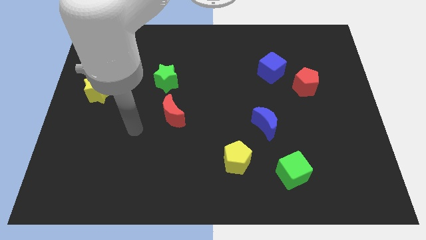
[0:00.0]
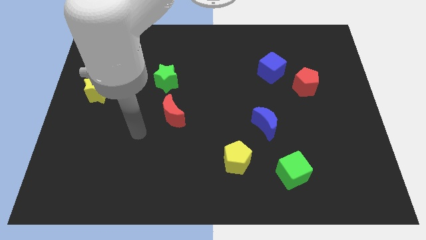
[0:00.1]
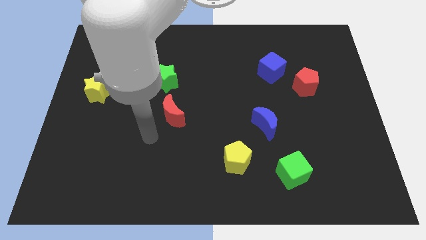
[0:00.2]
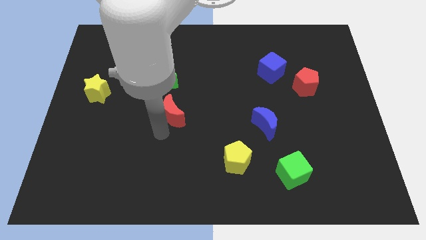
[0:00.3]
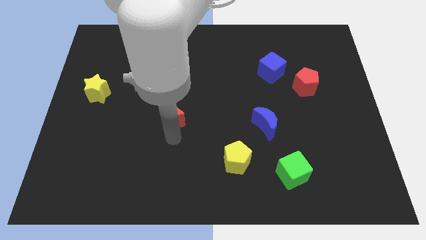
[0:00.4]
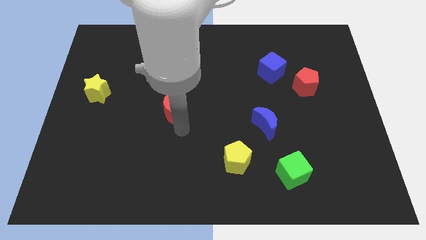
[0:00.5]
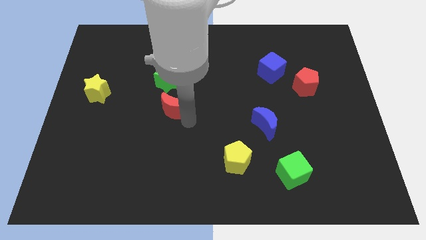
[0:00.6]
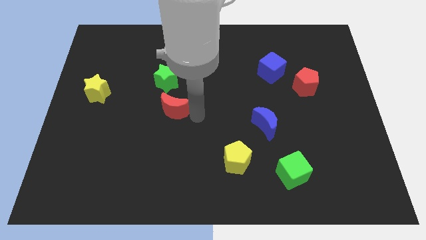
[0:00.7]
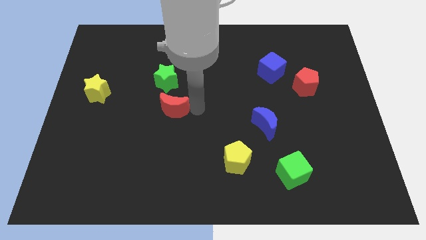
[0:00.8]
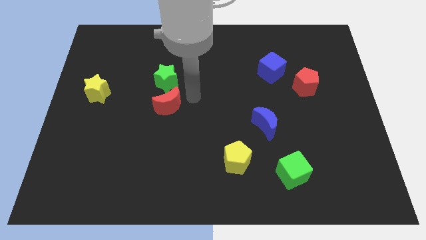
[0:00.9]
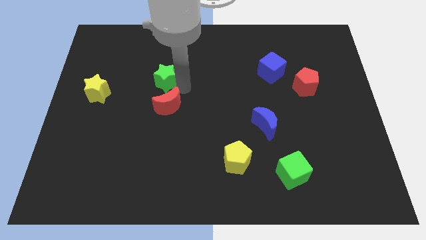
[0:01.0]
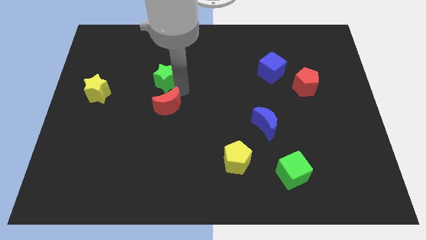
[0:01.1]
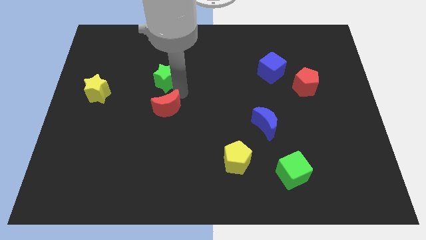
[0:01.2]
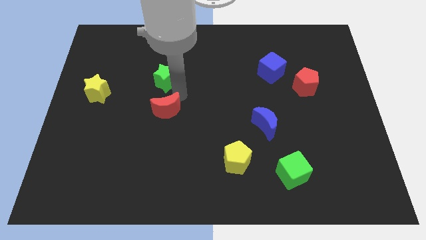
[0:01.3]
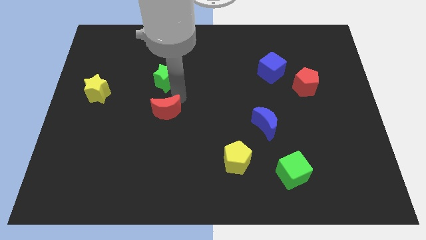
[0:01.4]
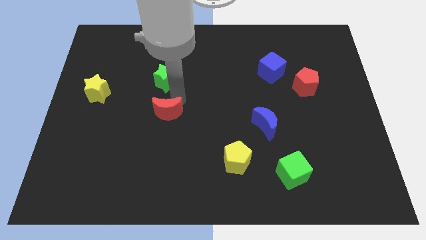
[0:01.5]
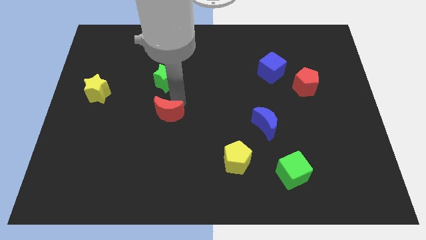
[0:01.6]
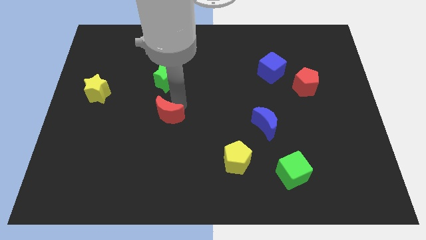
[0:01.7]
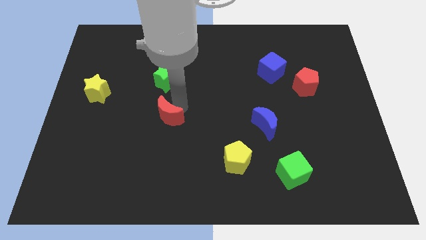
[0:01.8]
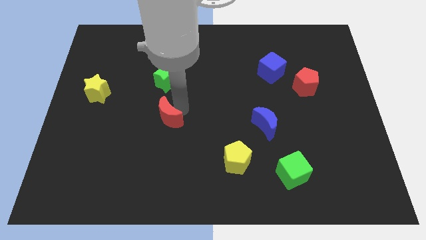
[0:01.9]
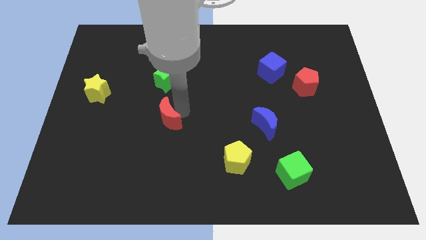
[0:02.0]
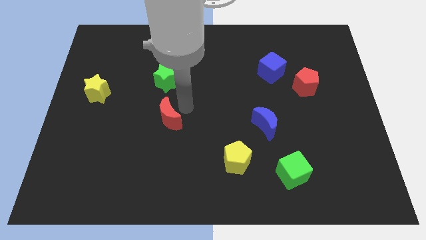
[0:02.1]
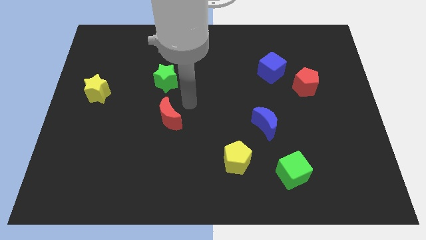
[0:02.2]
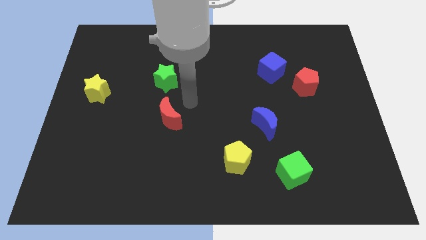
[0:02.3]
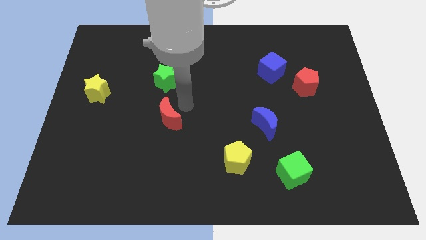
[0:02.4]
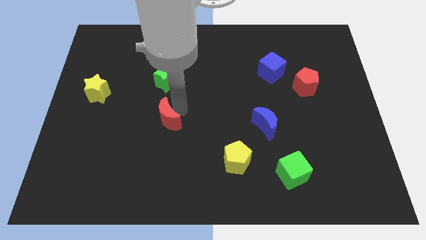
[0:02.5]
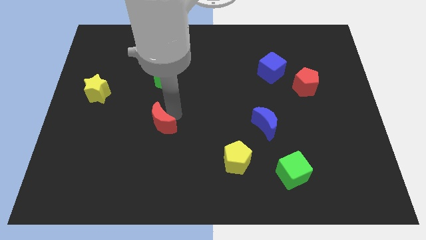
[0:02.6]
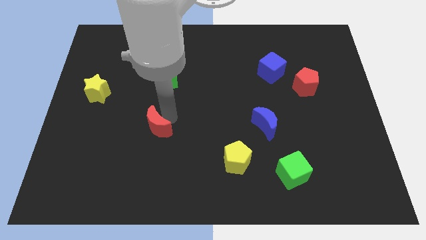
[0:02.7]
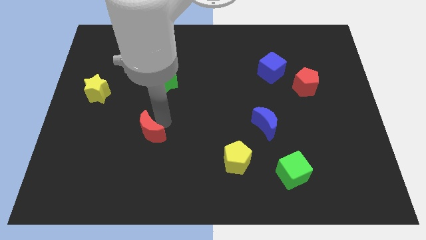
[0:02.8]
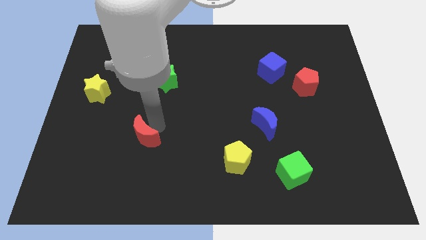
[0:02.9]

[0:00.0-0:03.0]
move the red moon down and left diagonally a little bit

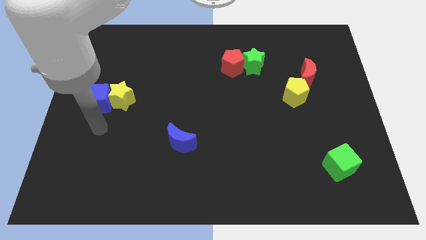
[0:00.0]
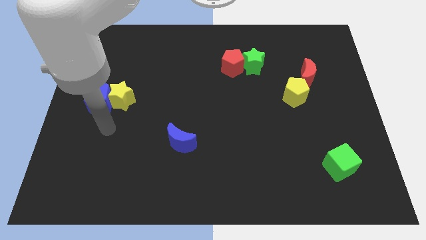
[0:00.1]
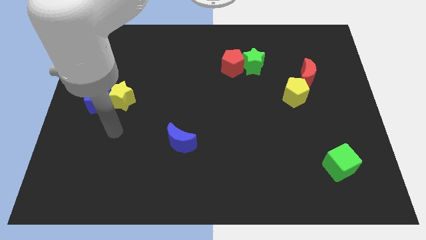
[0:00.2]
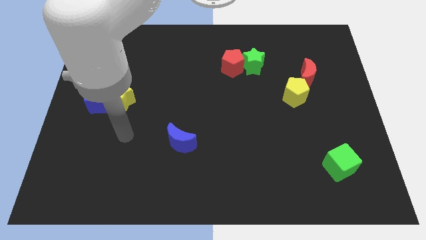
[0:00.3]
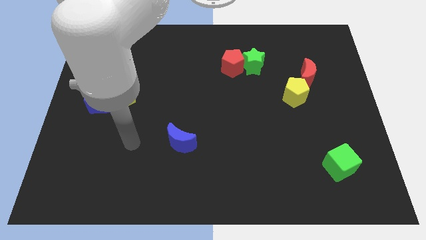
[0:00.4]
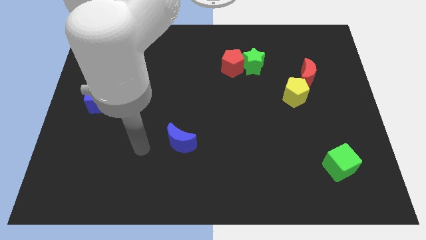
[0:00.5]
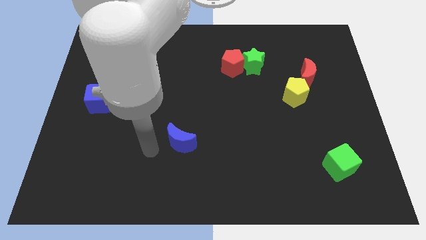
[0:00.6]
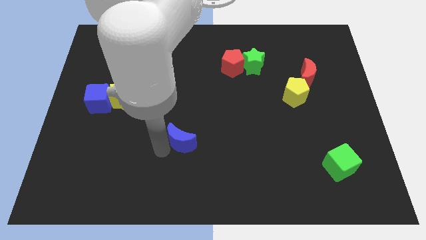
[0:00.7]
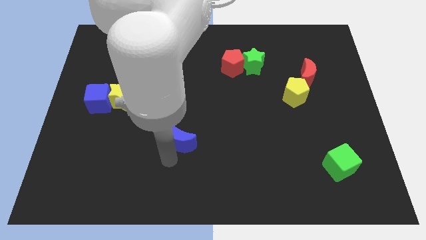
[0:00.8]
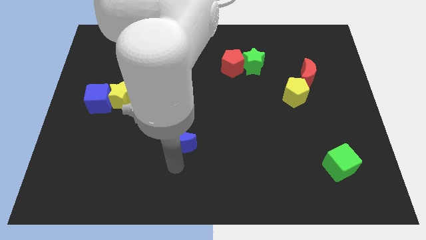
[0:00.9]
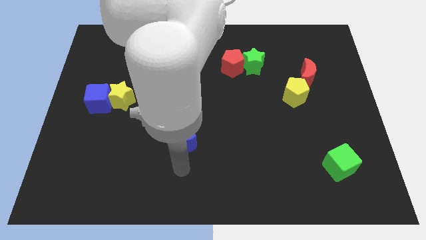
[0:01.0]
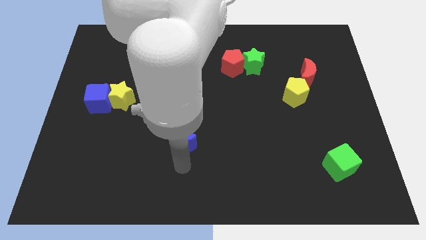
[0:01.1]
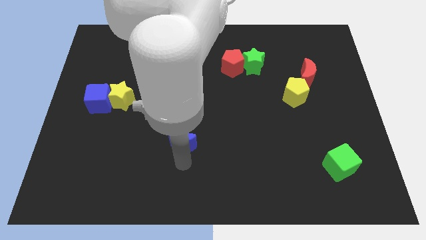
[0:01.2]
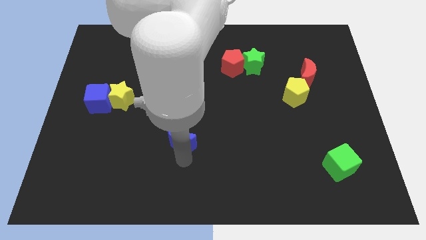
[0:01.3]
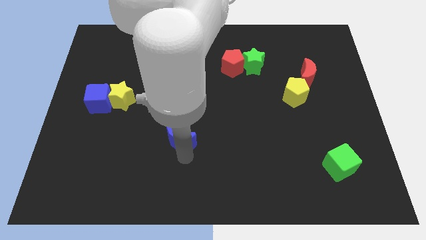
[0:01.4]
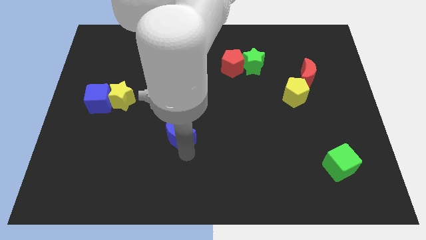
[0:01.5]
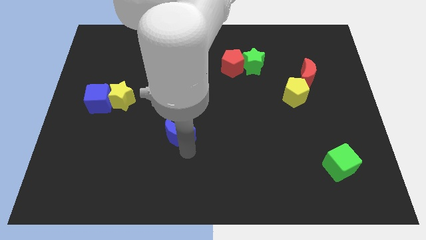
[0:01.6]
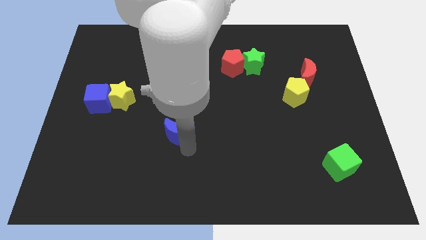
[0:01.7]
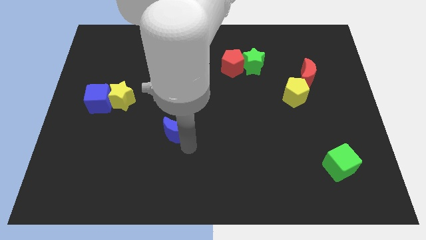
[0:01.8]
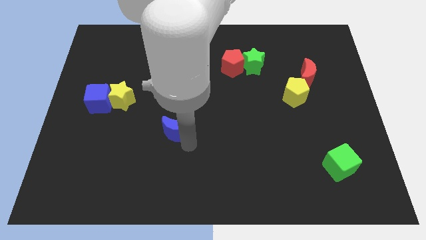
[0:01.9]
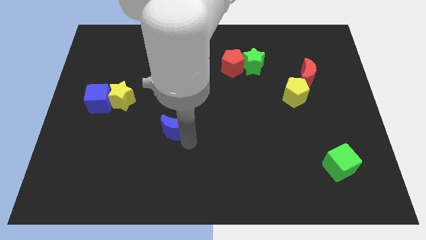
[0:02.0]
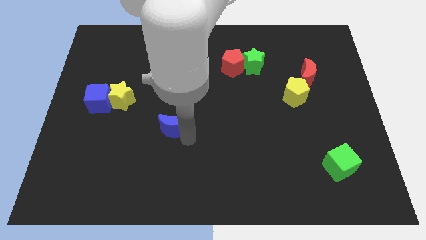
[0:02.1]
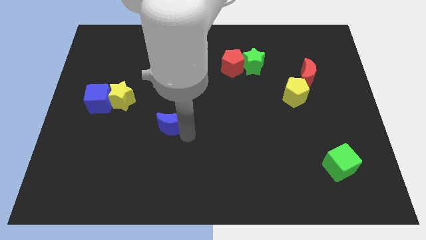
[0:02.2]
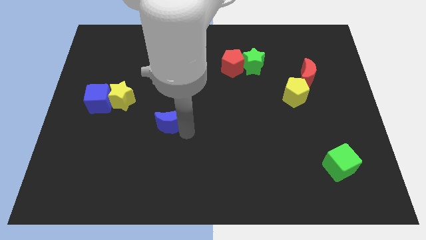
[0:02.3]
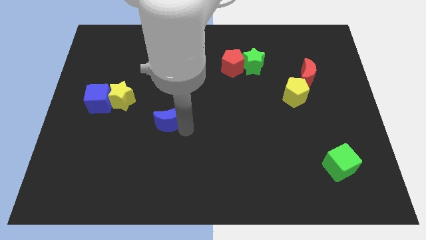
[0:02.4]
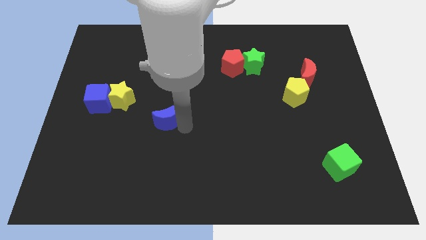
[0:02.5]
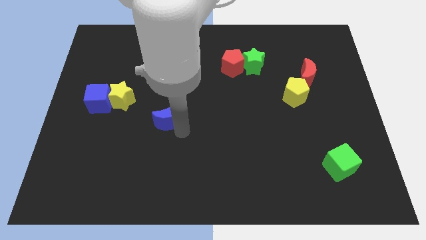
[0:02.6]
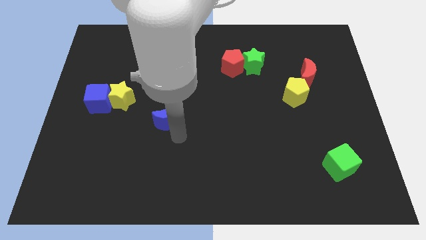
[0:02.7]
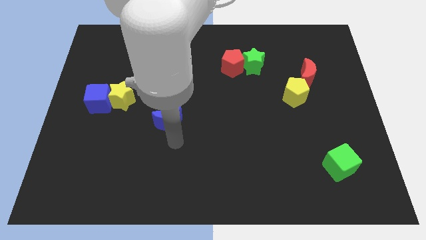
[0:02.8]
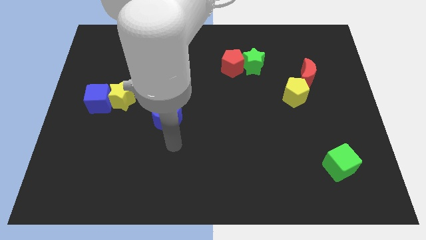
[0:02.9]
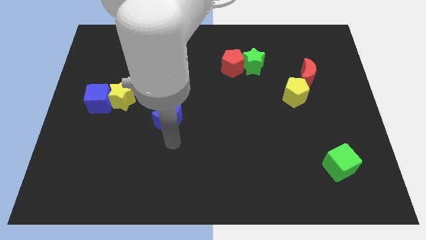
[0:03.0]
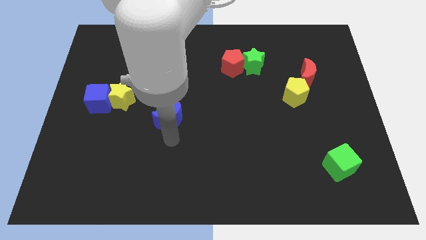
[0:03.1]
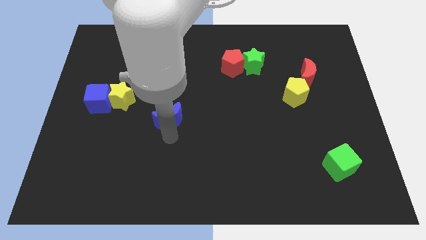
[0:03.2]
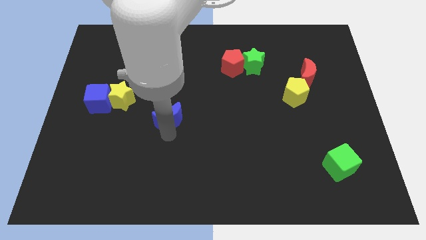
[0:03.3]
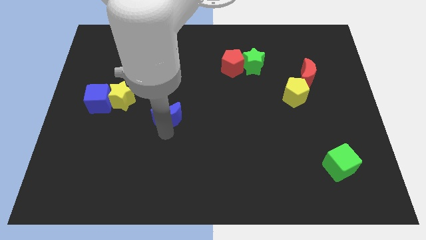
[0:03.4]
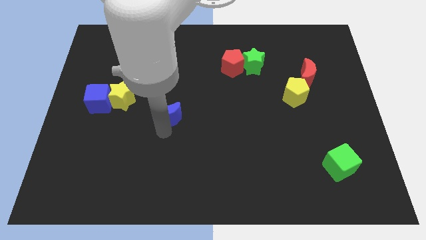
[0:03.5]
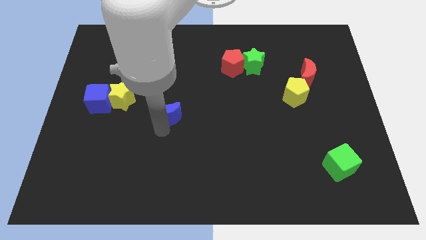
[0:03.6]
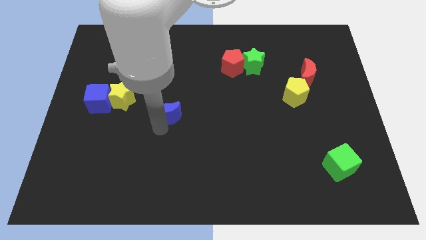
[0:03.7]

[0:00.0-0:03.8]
slide the blue moon somewhat upwards

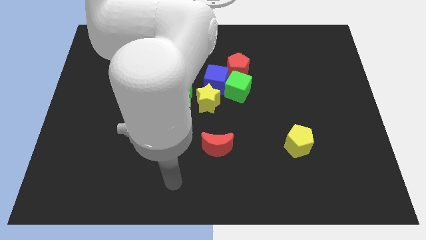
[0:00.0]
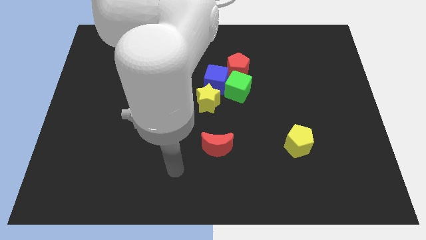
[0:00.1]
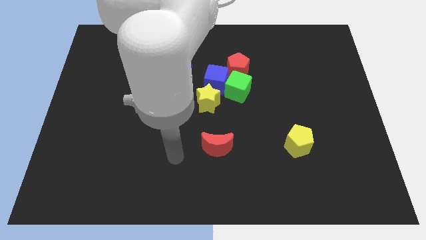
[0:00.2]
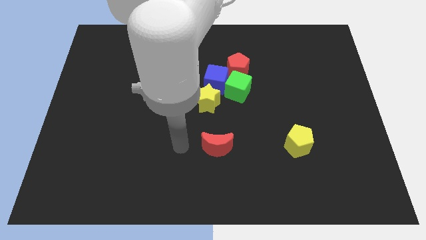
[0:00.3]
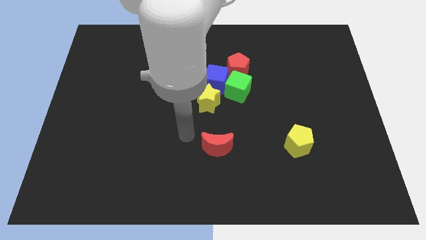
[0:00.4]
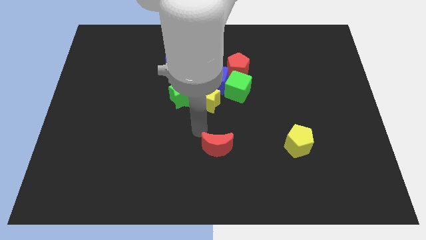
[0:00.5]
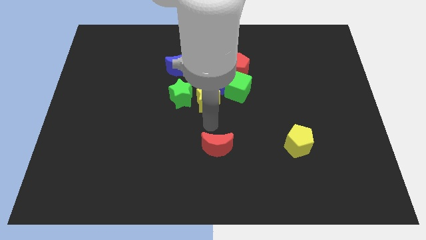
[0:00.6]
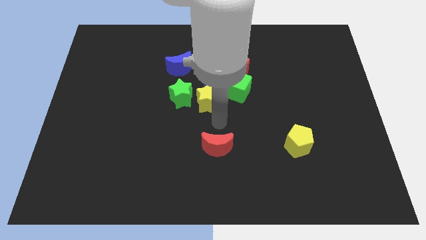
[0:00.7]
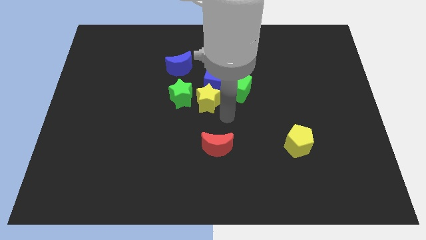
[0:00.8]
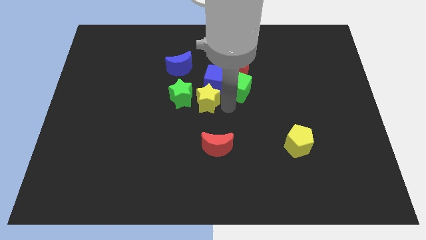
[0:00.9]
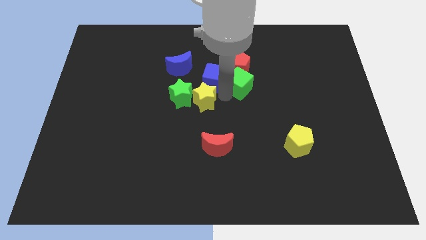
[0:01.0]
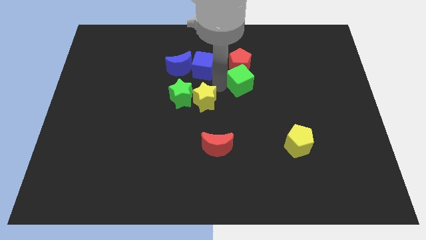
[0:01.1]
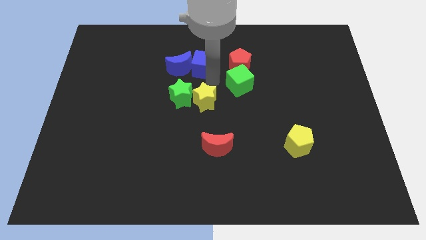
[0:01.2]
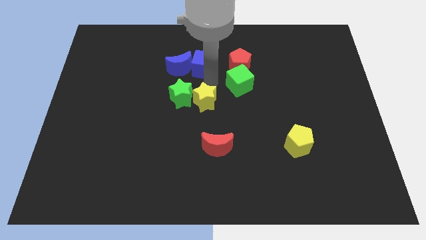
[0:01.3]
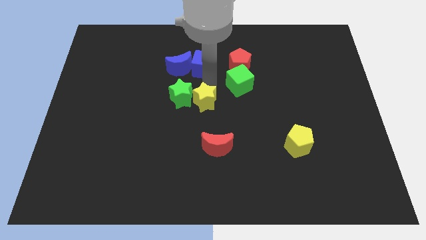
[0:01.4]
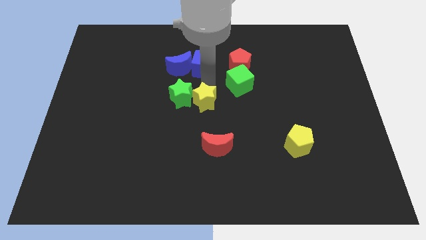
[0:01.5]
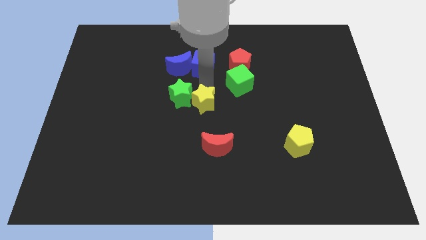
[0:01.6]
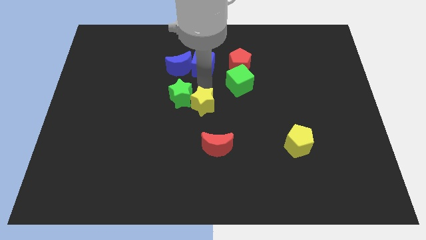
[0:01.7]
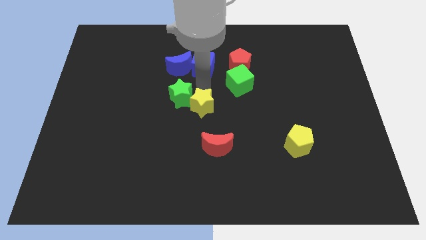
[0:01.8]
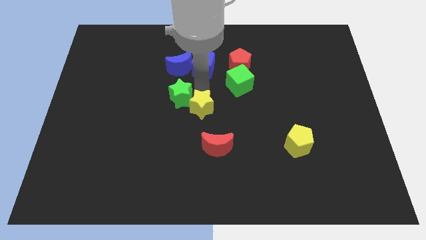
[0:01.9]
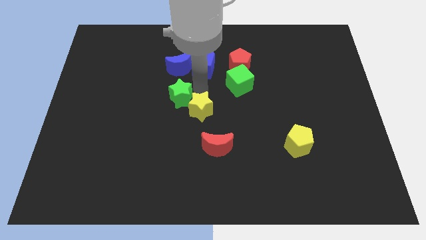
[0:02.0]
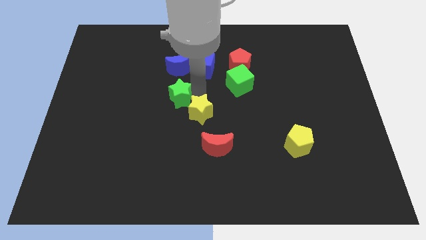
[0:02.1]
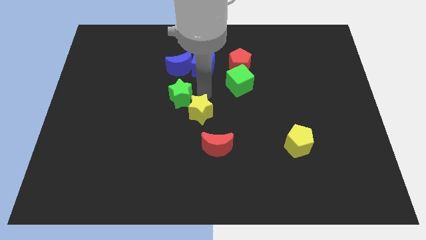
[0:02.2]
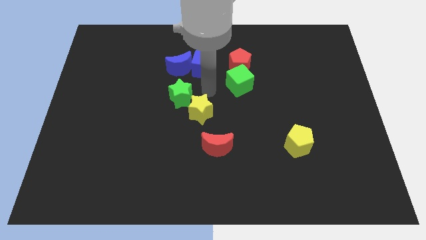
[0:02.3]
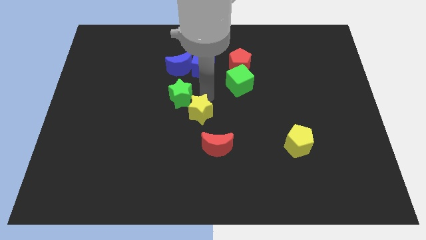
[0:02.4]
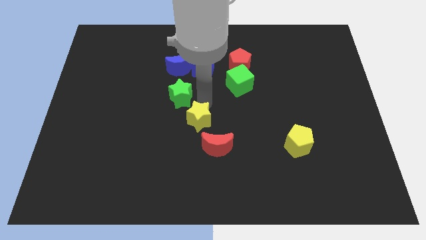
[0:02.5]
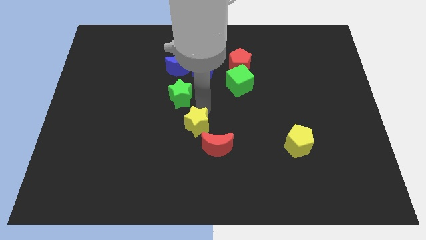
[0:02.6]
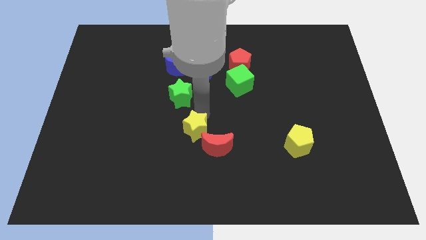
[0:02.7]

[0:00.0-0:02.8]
push the yellow star down a bit
